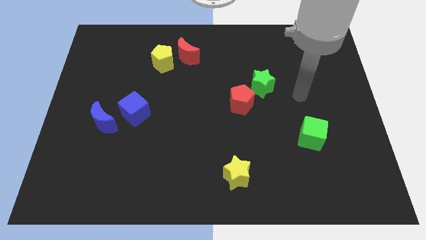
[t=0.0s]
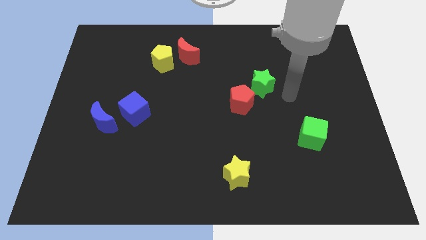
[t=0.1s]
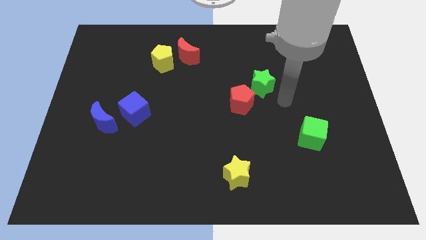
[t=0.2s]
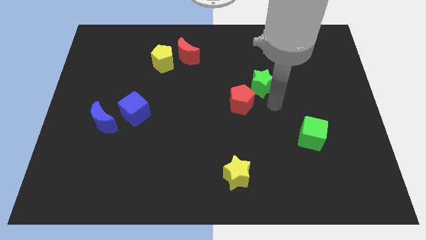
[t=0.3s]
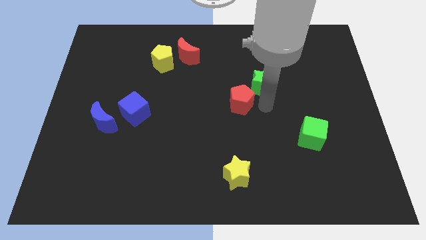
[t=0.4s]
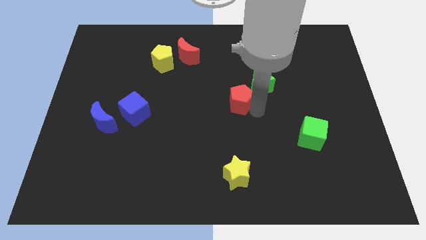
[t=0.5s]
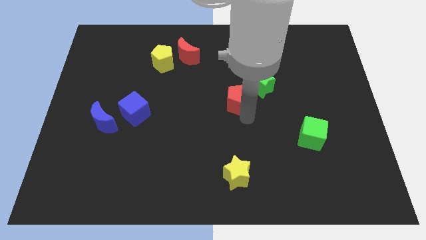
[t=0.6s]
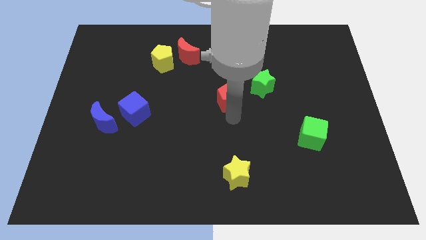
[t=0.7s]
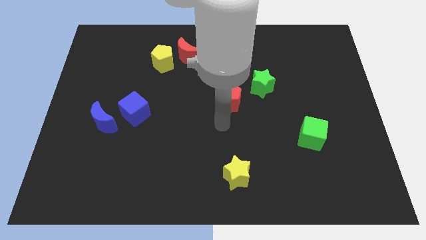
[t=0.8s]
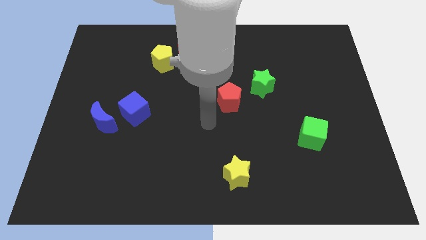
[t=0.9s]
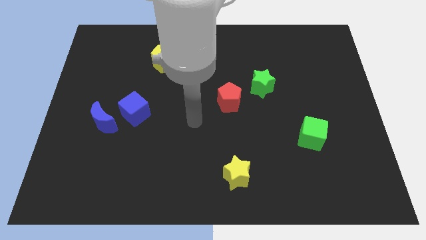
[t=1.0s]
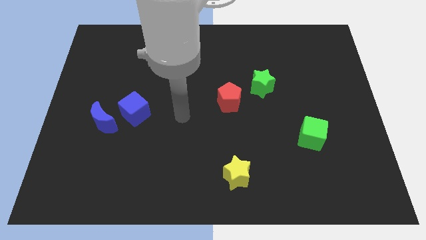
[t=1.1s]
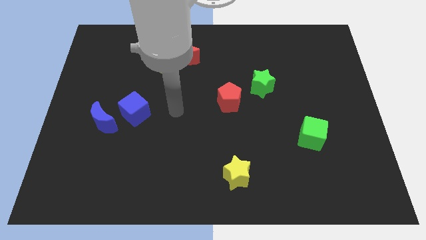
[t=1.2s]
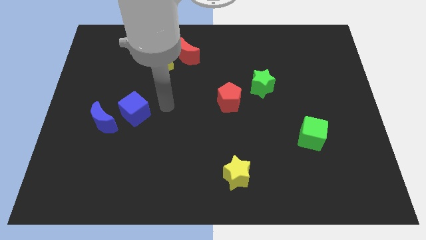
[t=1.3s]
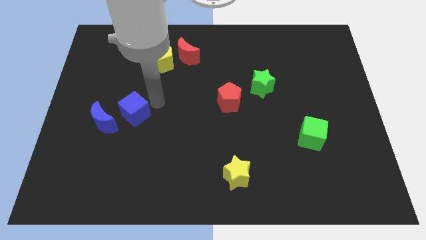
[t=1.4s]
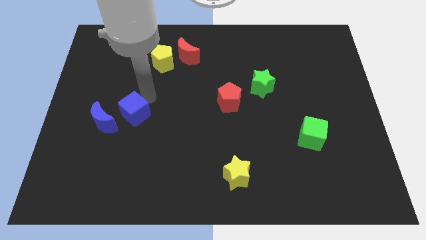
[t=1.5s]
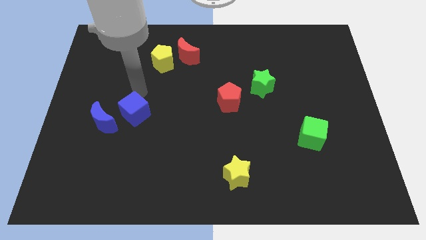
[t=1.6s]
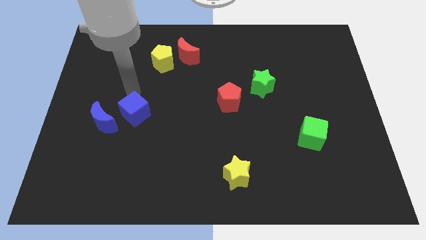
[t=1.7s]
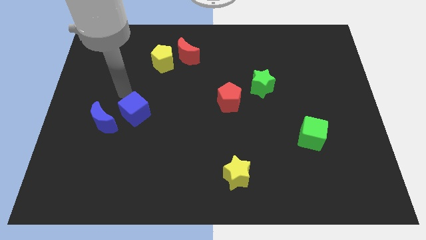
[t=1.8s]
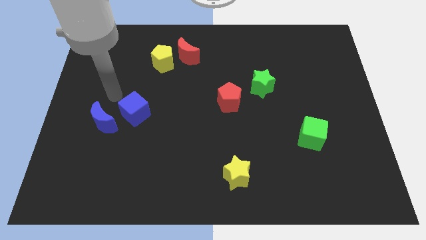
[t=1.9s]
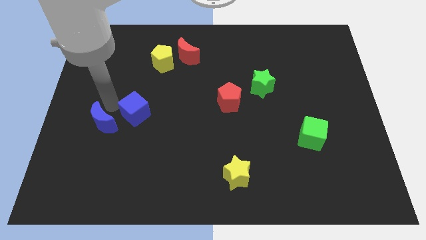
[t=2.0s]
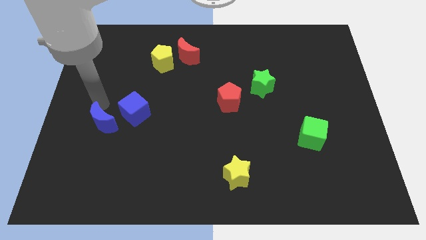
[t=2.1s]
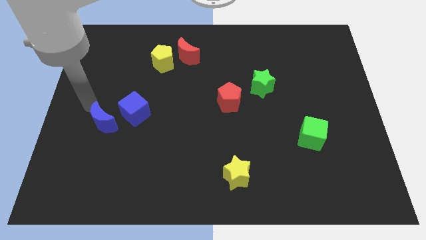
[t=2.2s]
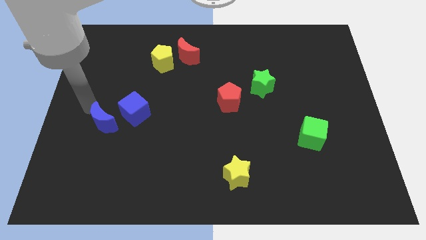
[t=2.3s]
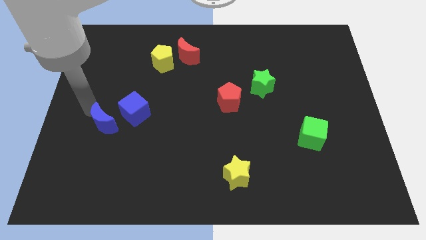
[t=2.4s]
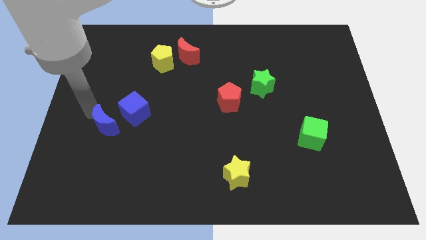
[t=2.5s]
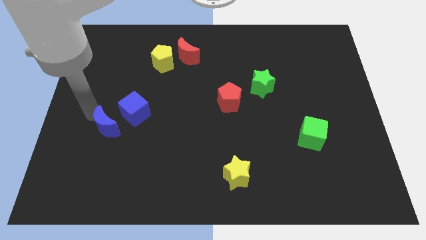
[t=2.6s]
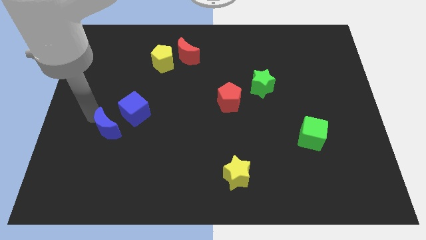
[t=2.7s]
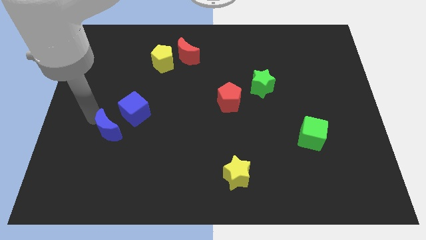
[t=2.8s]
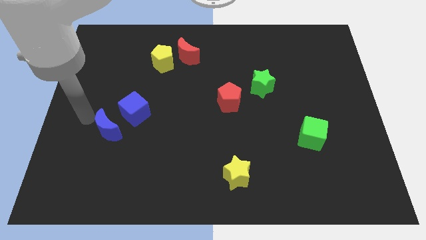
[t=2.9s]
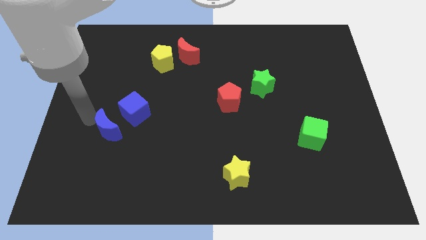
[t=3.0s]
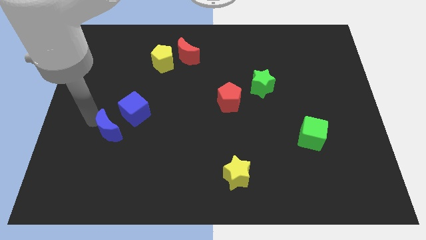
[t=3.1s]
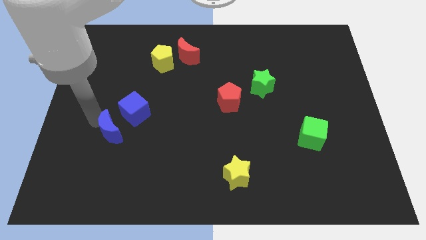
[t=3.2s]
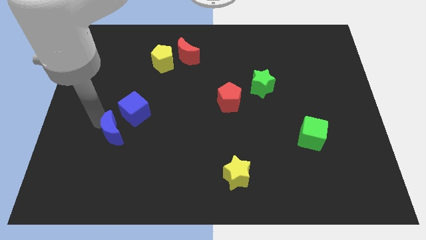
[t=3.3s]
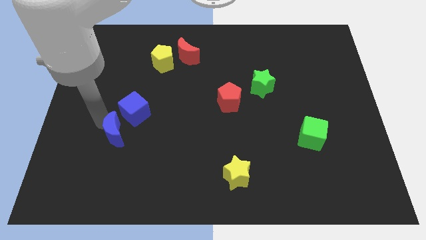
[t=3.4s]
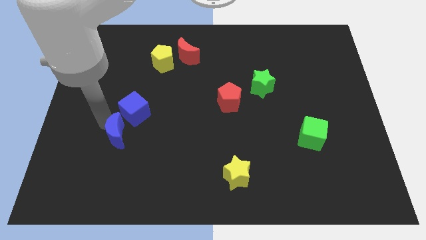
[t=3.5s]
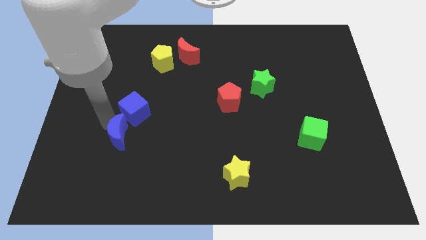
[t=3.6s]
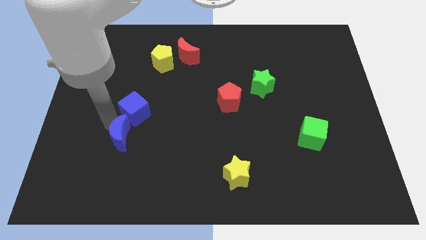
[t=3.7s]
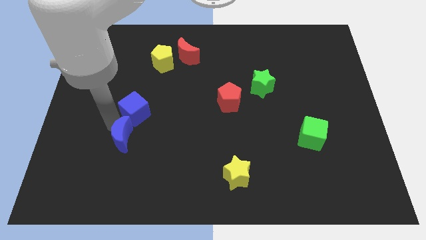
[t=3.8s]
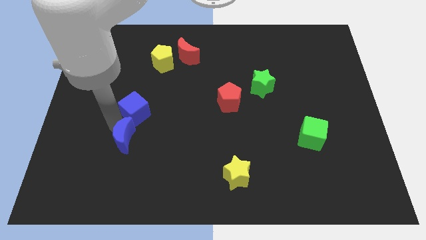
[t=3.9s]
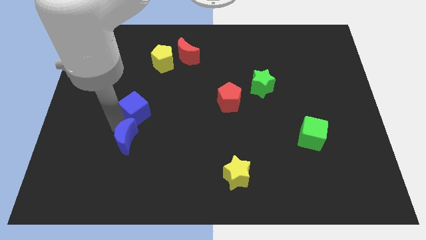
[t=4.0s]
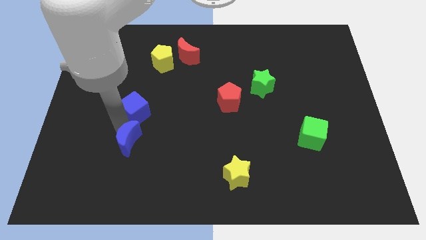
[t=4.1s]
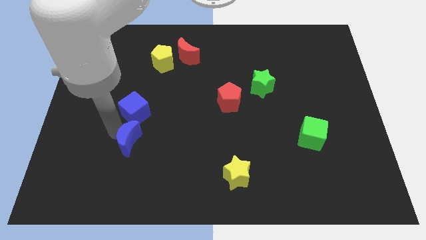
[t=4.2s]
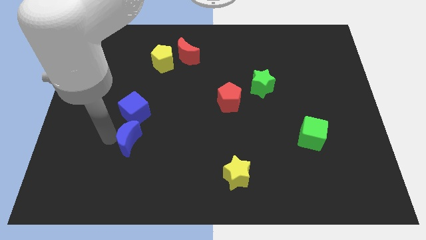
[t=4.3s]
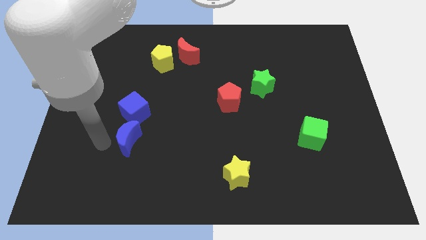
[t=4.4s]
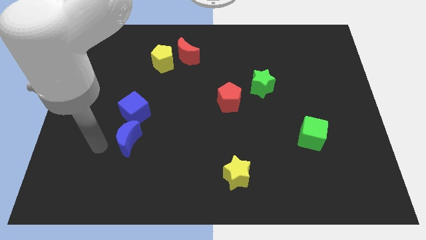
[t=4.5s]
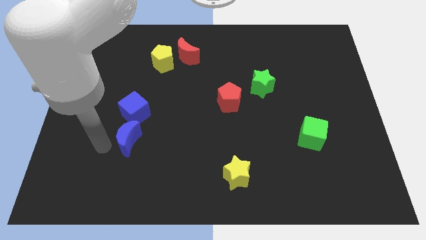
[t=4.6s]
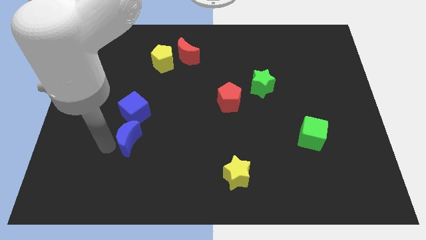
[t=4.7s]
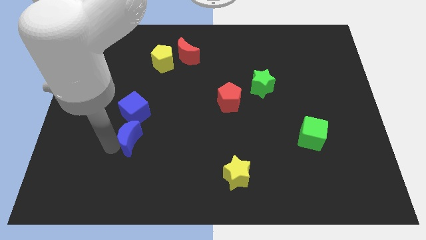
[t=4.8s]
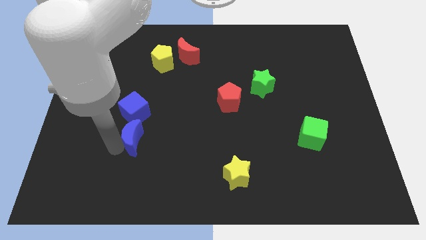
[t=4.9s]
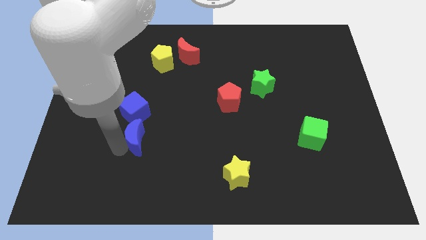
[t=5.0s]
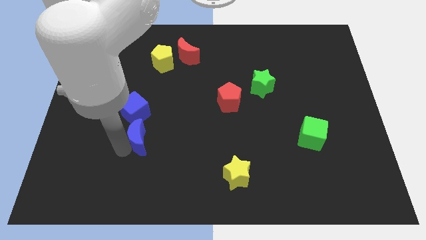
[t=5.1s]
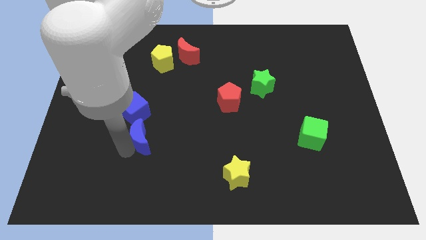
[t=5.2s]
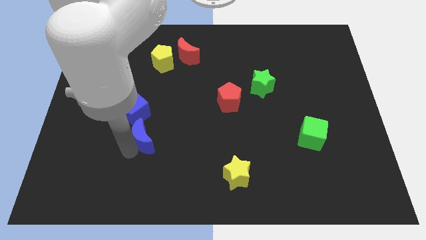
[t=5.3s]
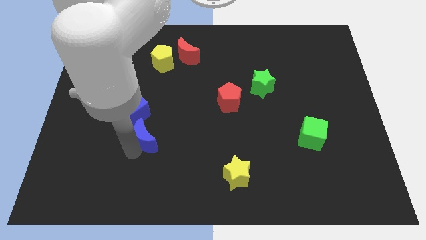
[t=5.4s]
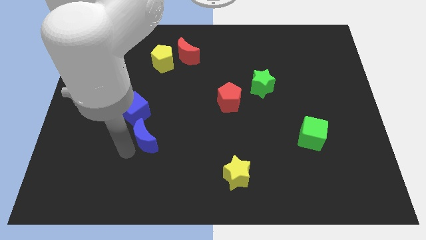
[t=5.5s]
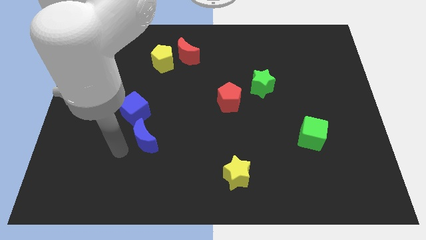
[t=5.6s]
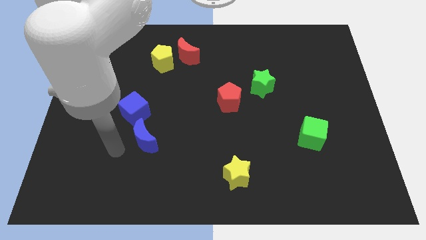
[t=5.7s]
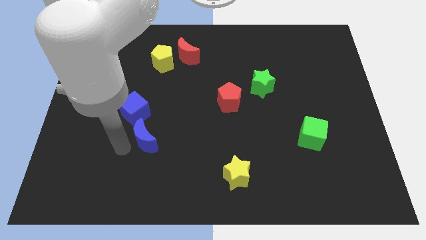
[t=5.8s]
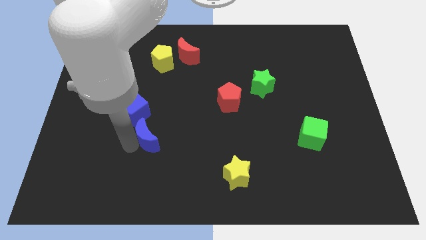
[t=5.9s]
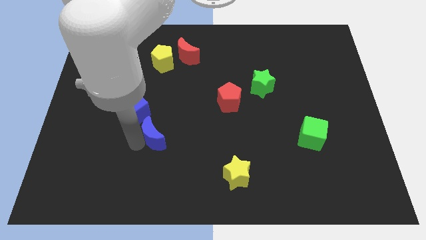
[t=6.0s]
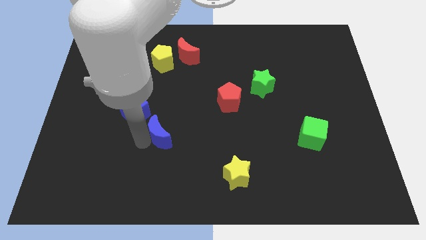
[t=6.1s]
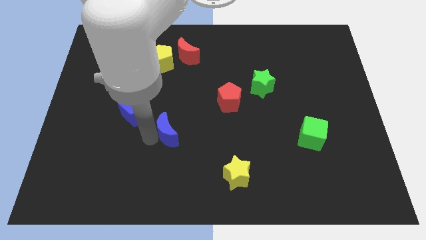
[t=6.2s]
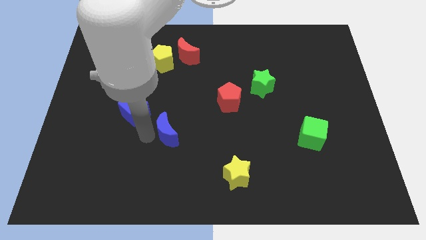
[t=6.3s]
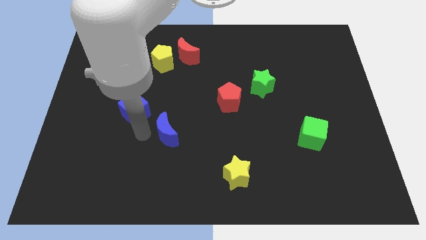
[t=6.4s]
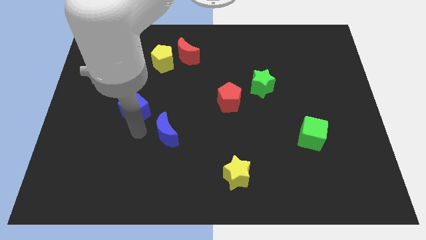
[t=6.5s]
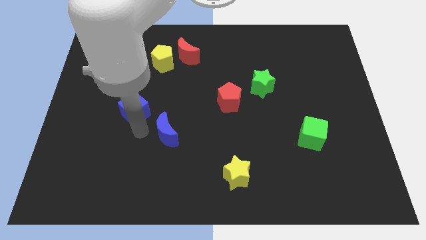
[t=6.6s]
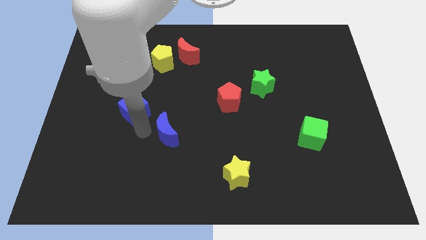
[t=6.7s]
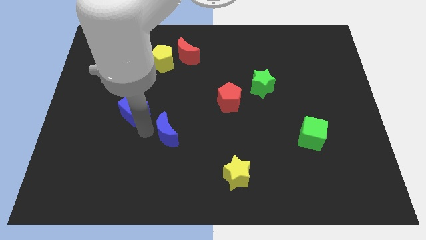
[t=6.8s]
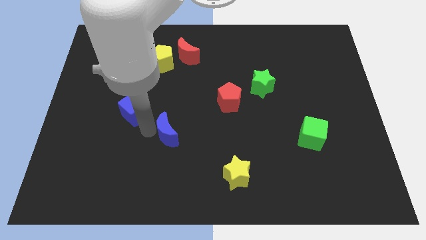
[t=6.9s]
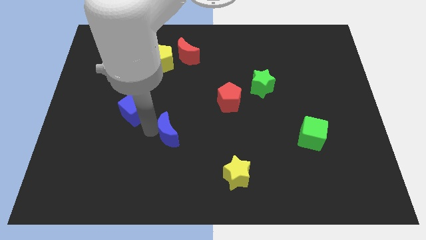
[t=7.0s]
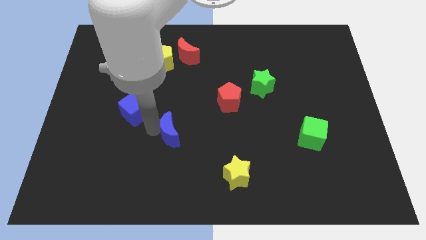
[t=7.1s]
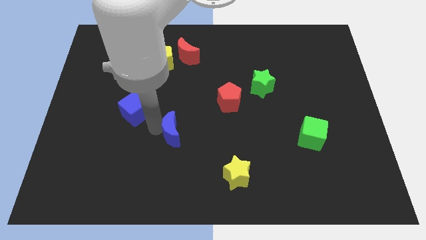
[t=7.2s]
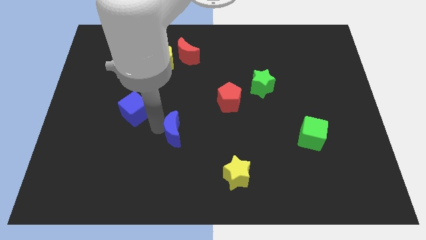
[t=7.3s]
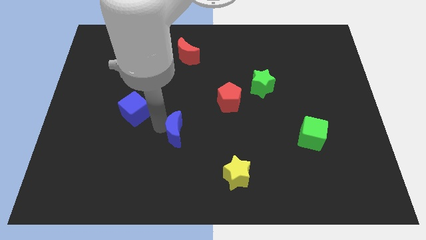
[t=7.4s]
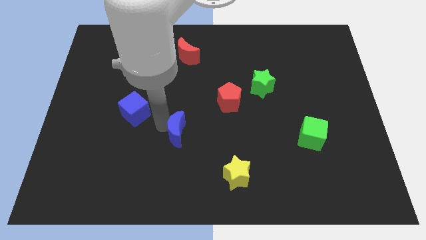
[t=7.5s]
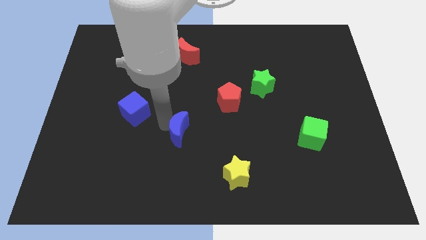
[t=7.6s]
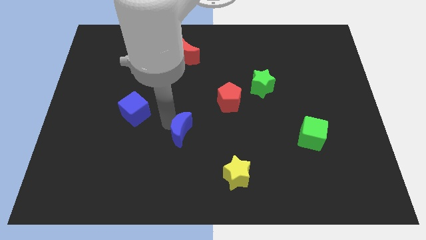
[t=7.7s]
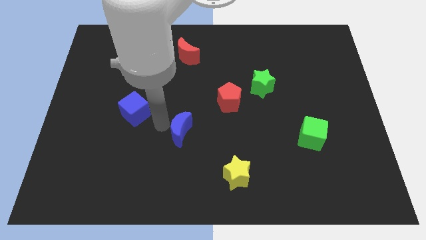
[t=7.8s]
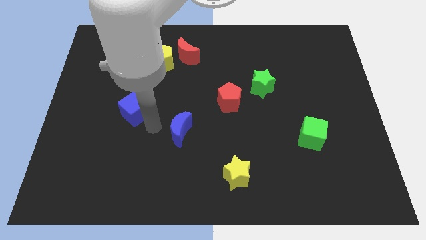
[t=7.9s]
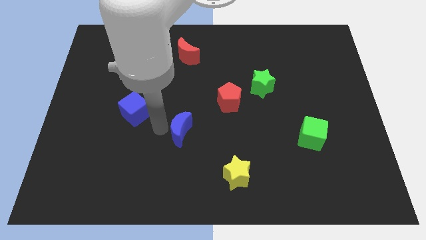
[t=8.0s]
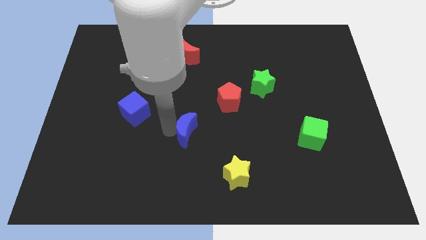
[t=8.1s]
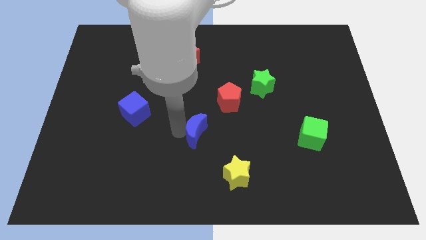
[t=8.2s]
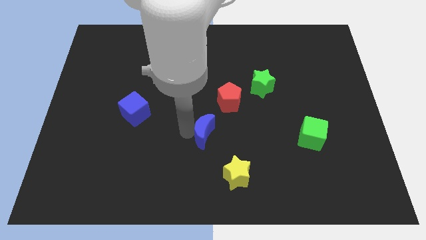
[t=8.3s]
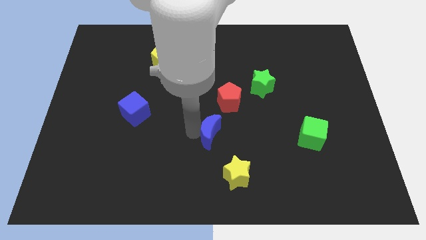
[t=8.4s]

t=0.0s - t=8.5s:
push the blue moon to the bottom side of the red pentagon
